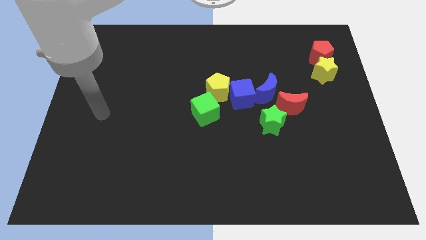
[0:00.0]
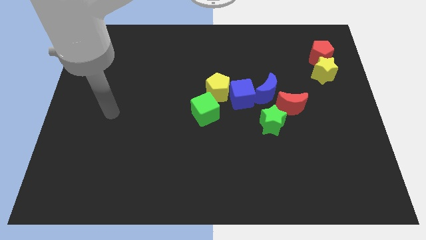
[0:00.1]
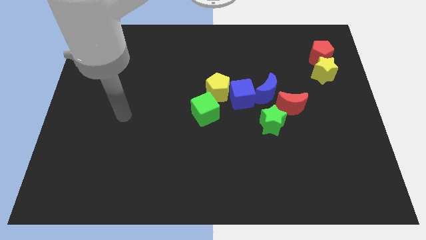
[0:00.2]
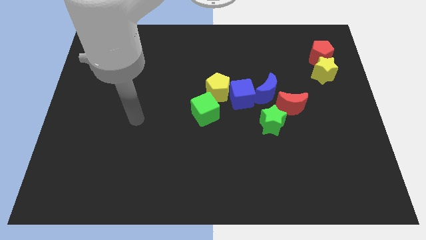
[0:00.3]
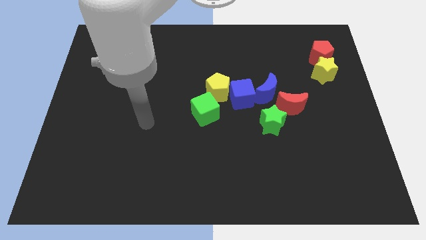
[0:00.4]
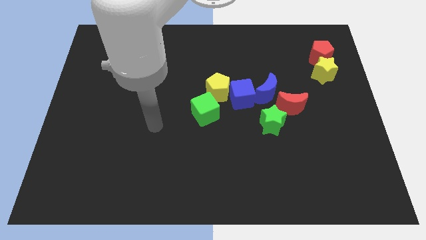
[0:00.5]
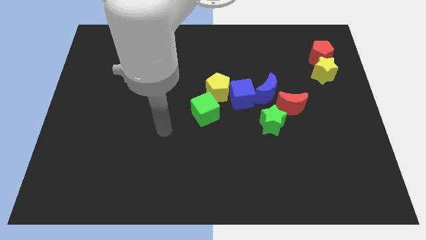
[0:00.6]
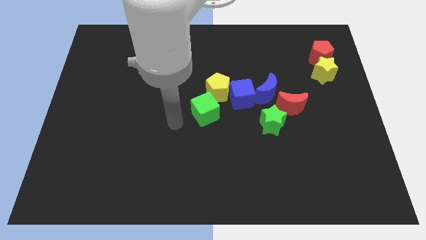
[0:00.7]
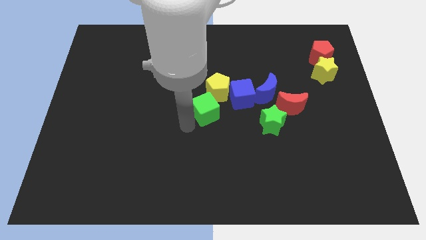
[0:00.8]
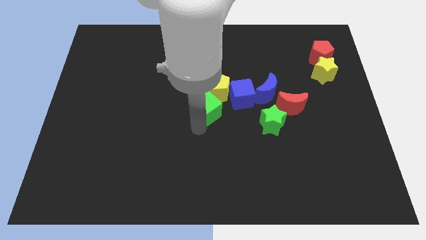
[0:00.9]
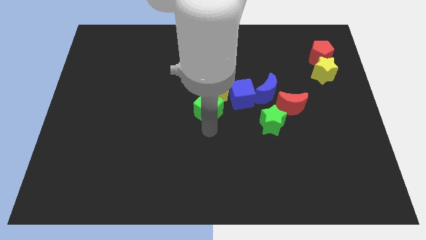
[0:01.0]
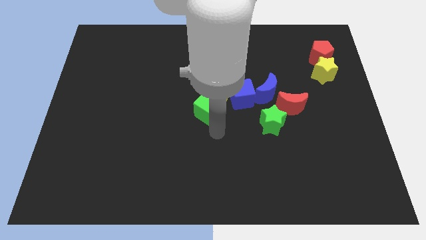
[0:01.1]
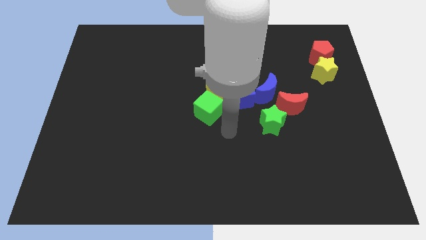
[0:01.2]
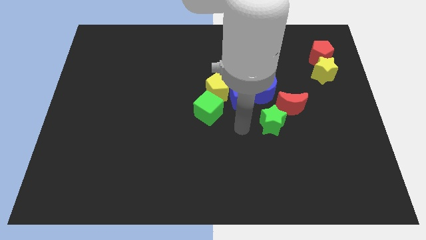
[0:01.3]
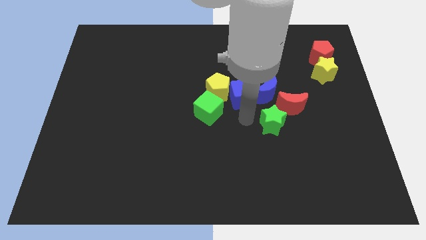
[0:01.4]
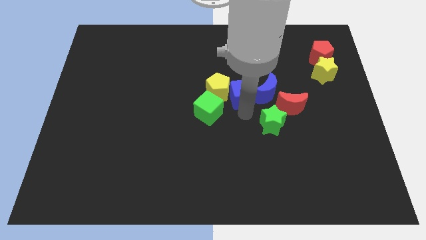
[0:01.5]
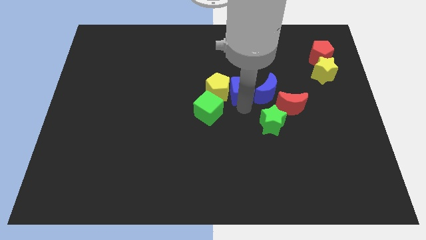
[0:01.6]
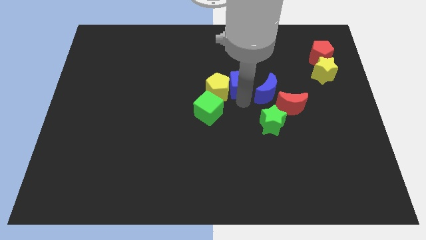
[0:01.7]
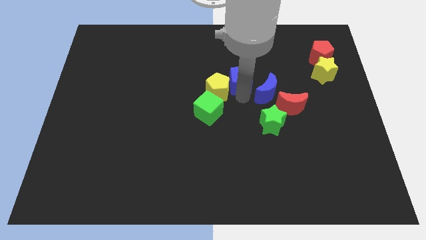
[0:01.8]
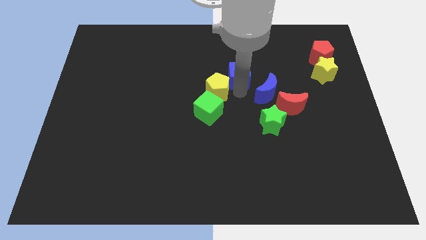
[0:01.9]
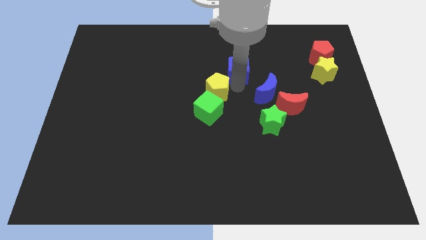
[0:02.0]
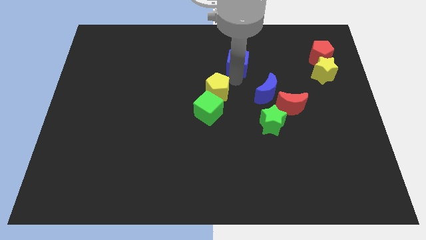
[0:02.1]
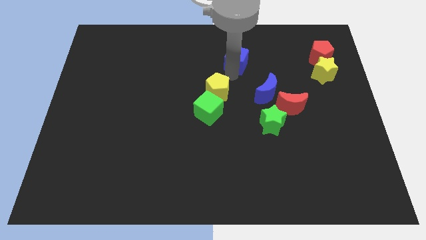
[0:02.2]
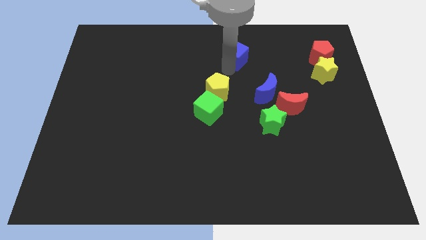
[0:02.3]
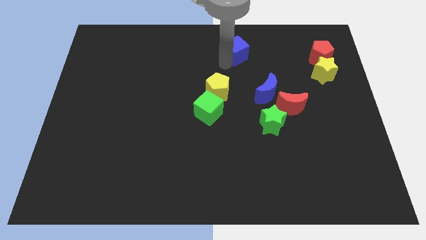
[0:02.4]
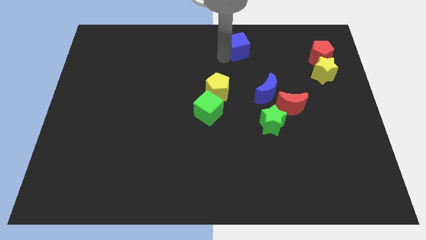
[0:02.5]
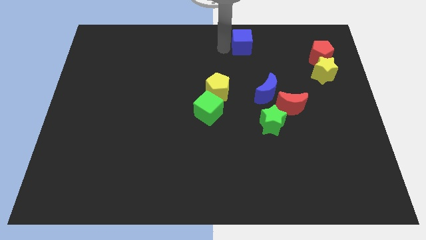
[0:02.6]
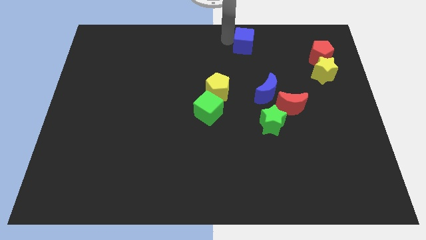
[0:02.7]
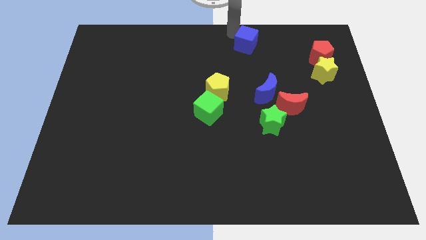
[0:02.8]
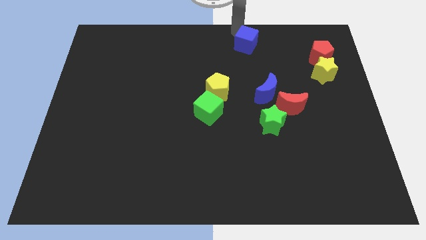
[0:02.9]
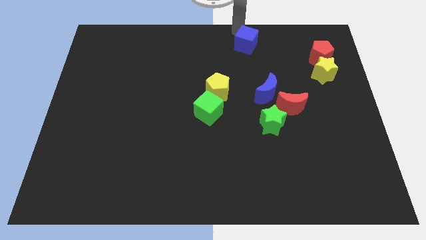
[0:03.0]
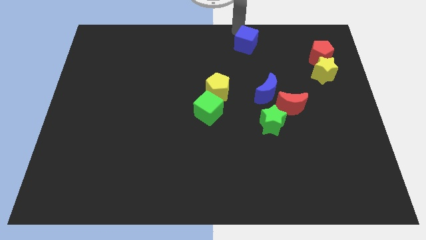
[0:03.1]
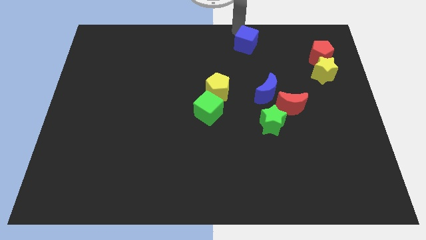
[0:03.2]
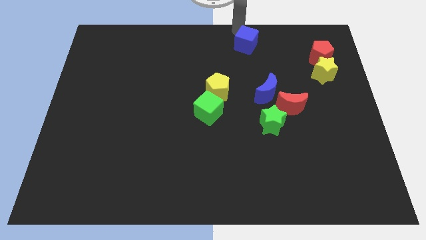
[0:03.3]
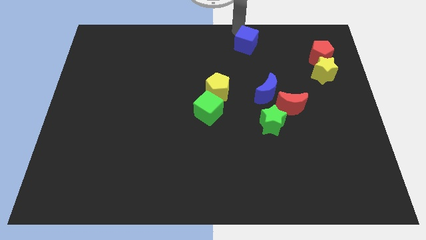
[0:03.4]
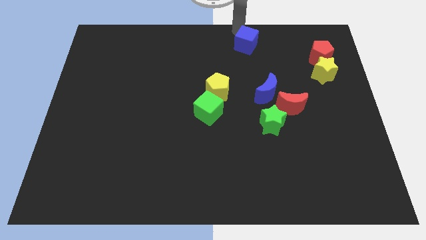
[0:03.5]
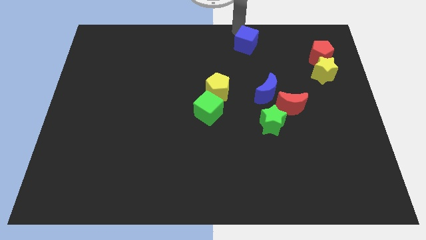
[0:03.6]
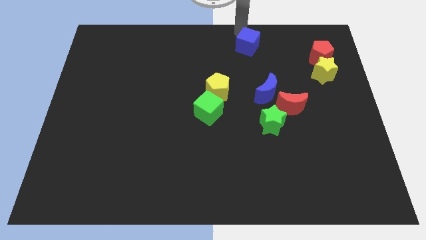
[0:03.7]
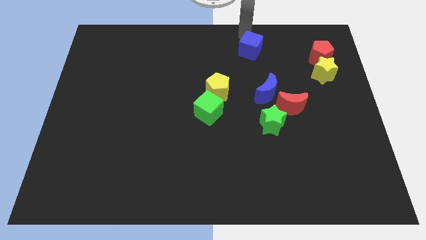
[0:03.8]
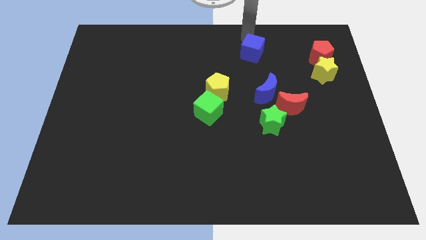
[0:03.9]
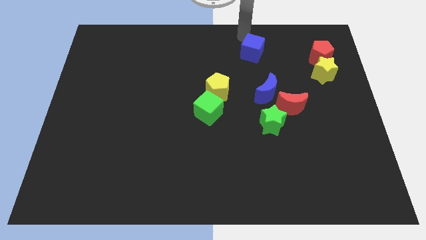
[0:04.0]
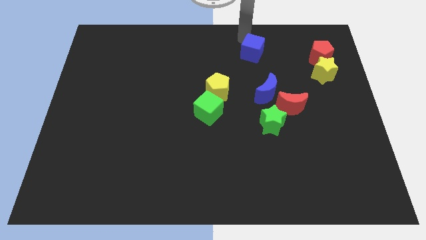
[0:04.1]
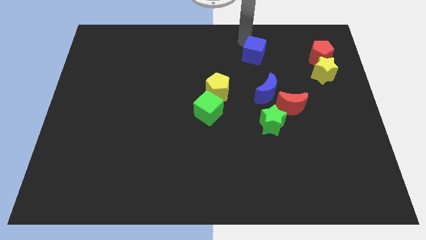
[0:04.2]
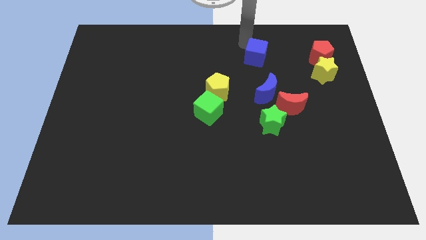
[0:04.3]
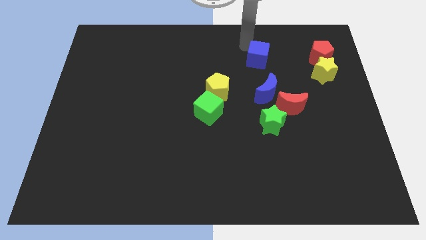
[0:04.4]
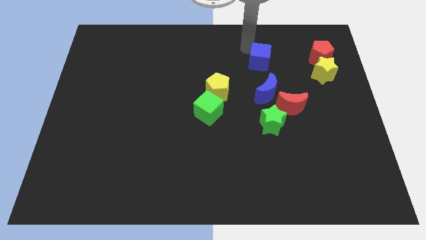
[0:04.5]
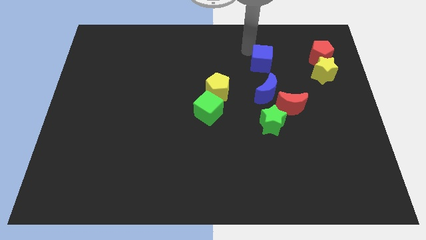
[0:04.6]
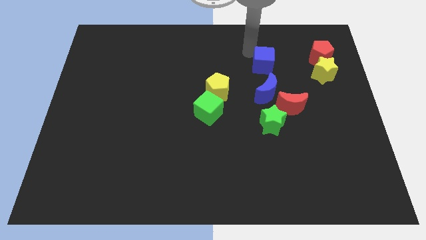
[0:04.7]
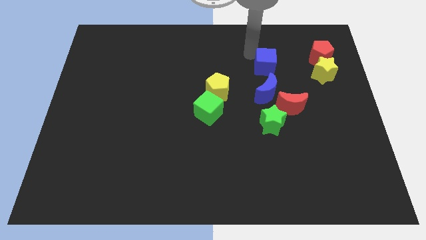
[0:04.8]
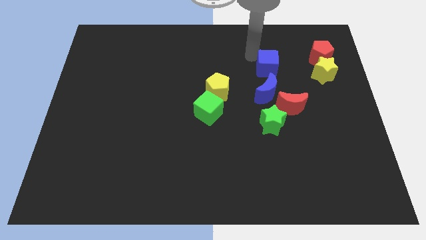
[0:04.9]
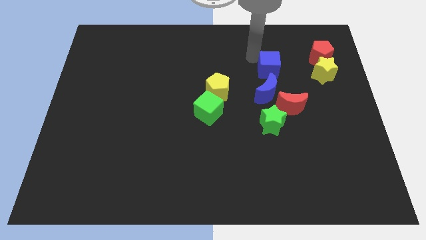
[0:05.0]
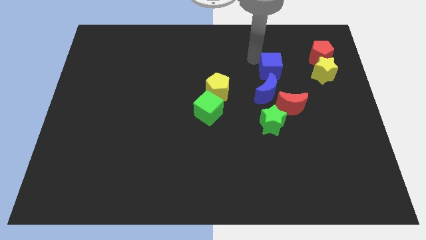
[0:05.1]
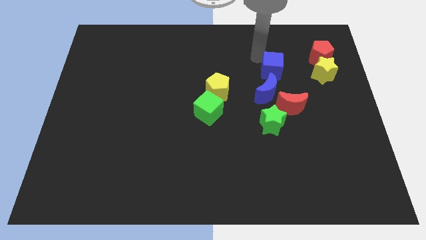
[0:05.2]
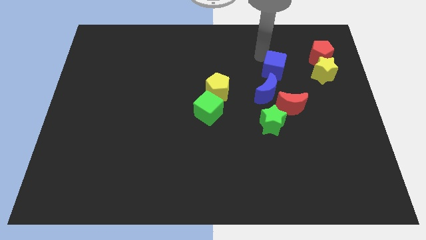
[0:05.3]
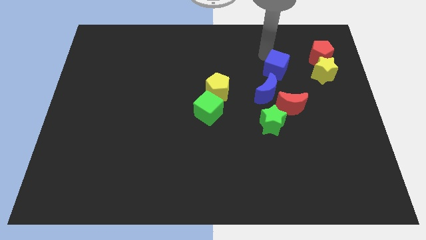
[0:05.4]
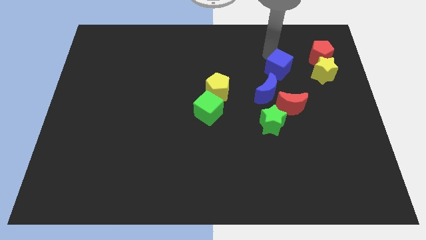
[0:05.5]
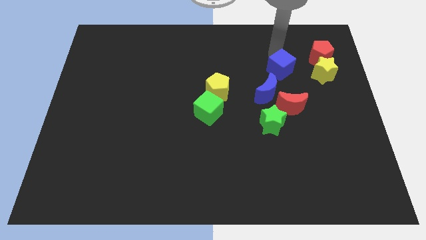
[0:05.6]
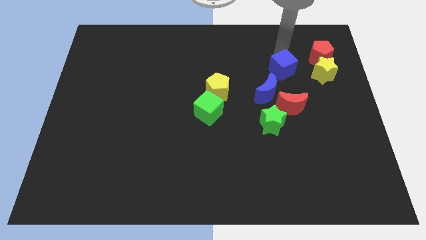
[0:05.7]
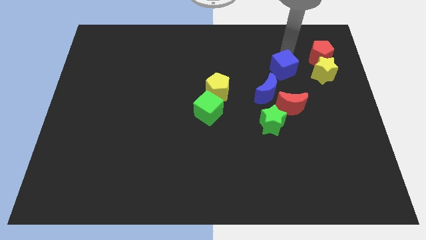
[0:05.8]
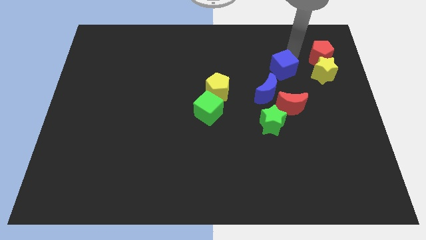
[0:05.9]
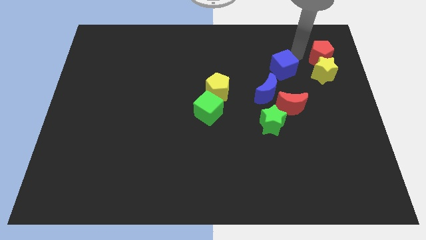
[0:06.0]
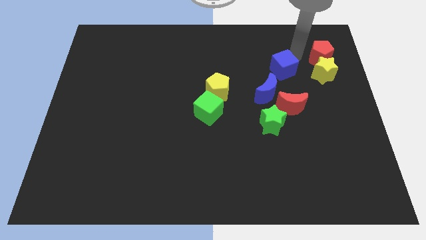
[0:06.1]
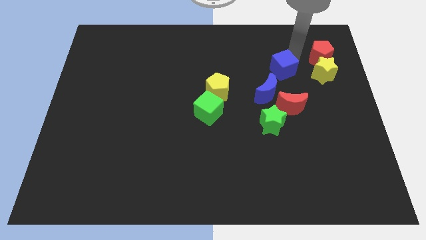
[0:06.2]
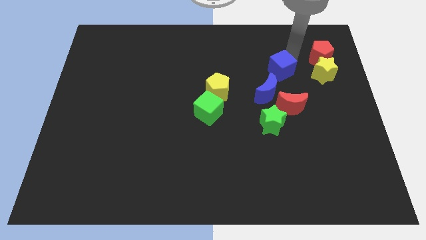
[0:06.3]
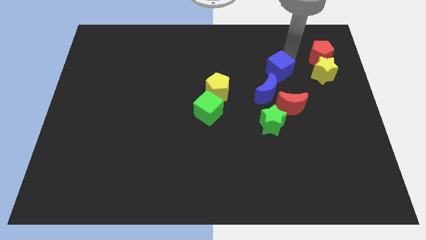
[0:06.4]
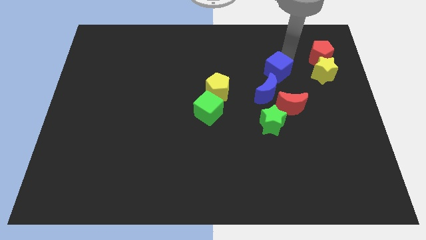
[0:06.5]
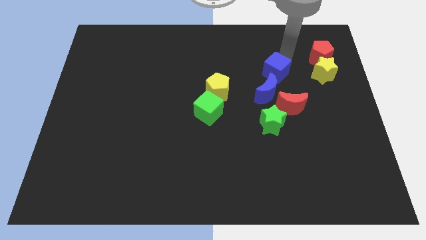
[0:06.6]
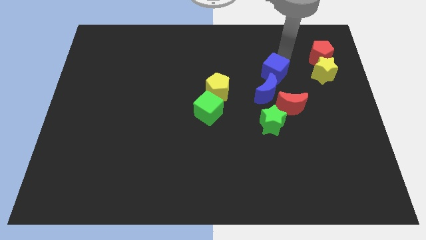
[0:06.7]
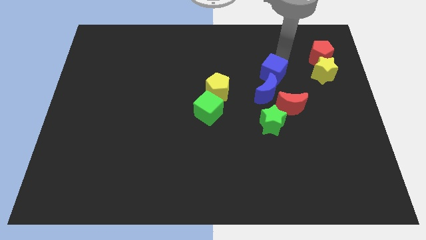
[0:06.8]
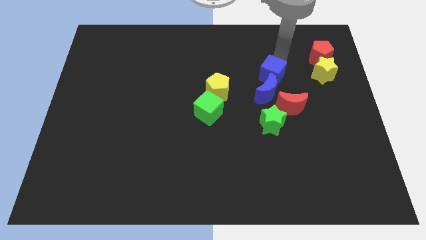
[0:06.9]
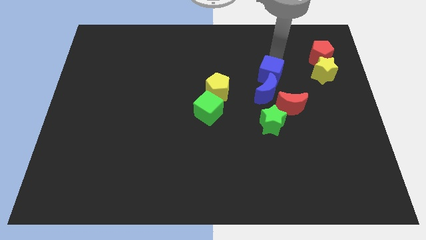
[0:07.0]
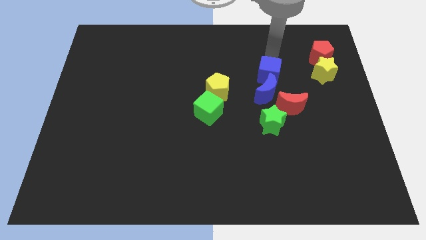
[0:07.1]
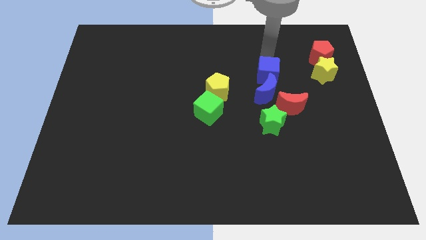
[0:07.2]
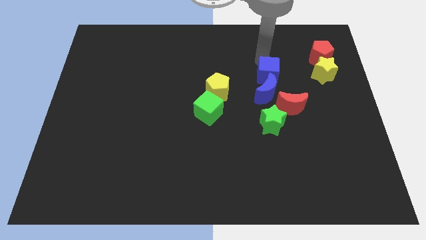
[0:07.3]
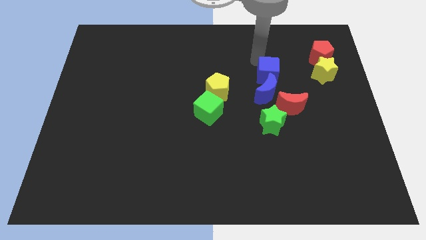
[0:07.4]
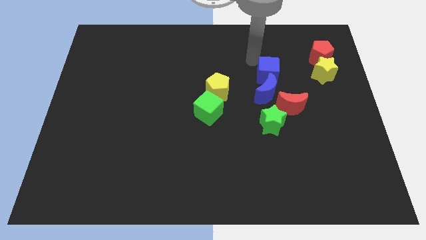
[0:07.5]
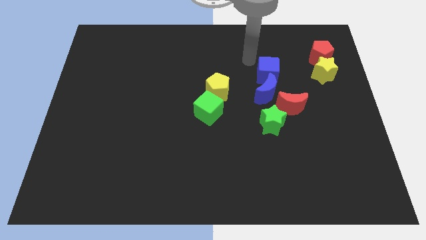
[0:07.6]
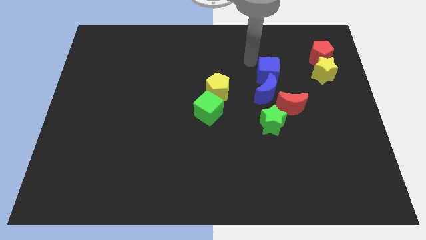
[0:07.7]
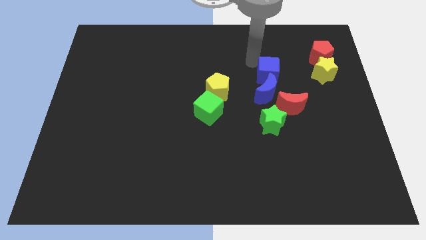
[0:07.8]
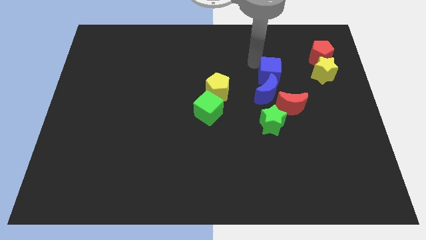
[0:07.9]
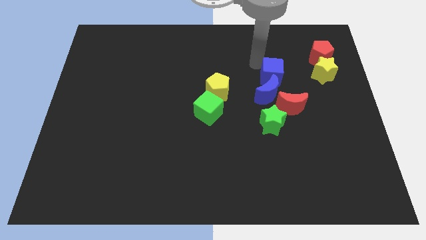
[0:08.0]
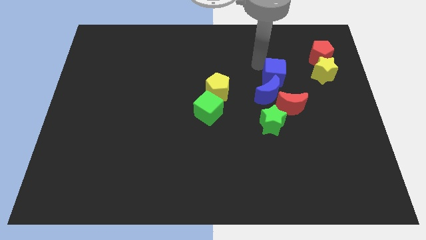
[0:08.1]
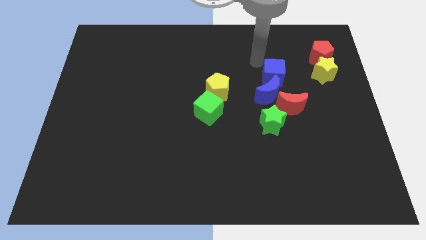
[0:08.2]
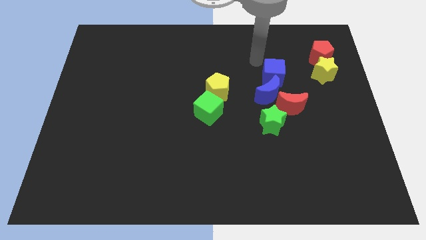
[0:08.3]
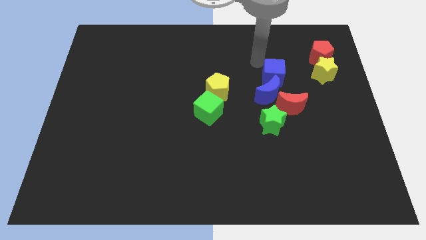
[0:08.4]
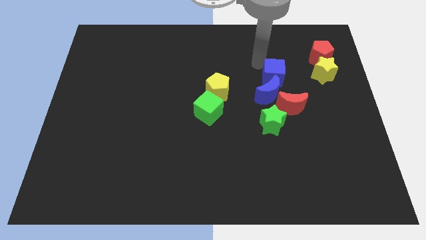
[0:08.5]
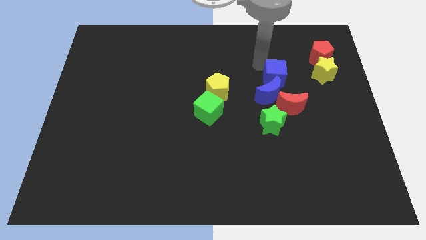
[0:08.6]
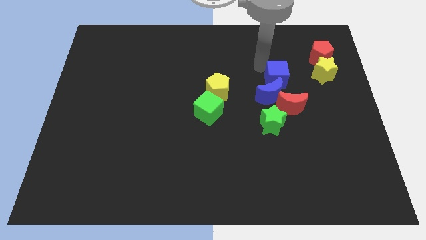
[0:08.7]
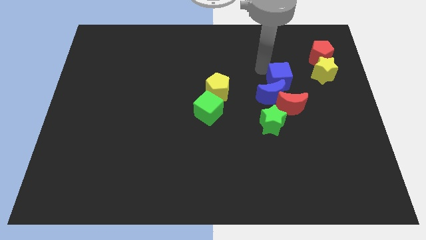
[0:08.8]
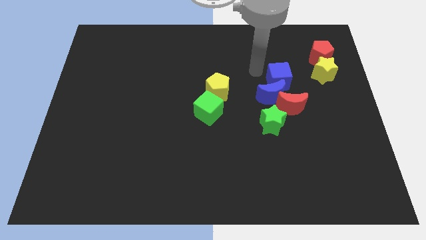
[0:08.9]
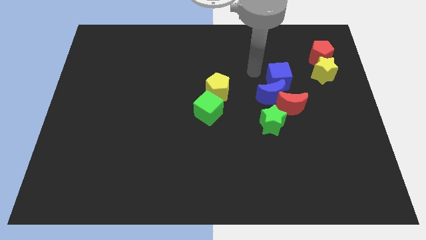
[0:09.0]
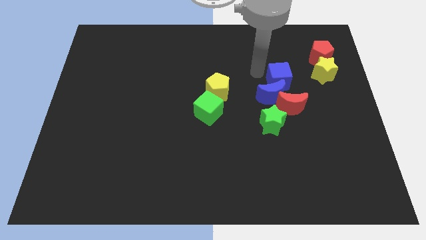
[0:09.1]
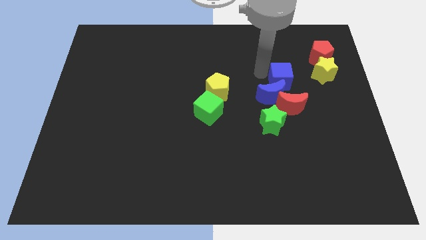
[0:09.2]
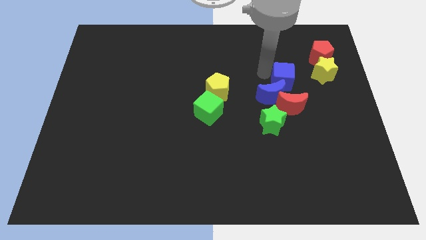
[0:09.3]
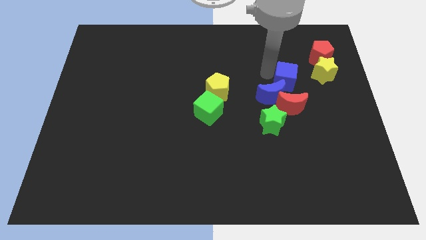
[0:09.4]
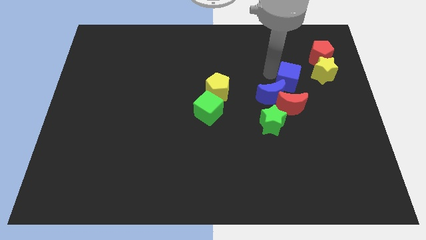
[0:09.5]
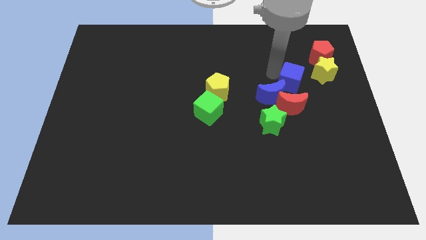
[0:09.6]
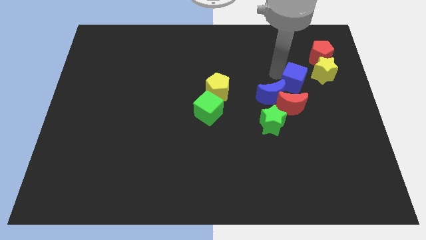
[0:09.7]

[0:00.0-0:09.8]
put the blue cube to the top right of the red moon
